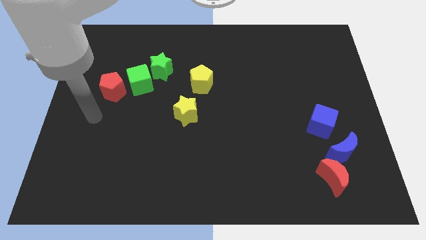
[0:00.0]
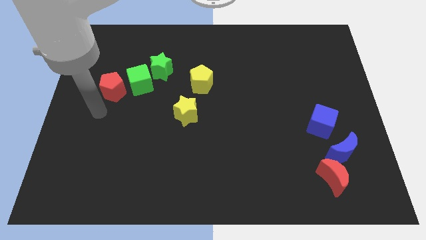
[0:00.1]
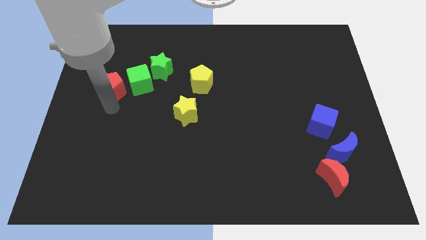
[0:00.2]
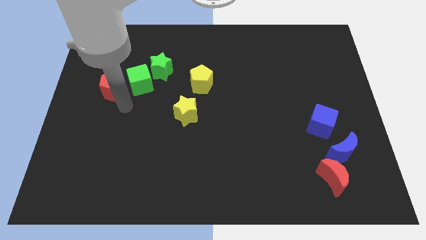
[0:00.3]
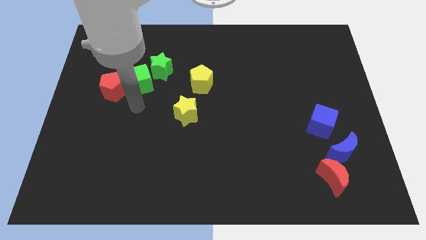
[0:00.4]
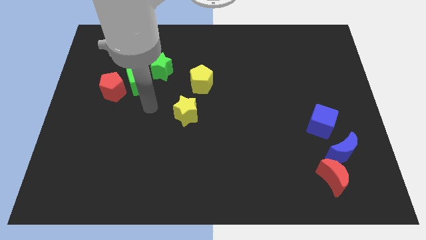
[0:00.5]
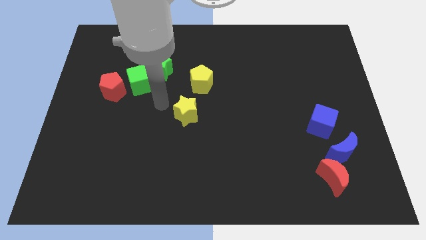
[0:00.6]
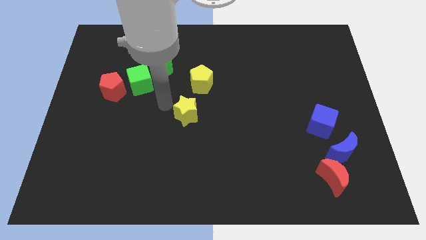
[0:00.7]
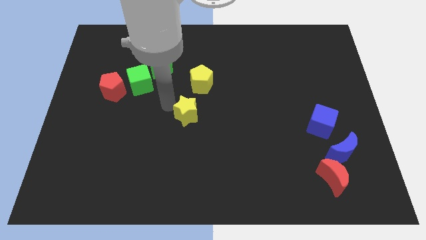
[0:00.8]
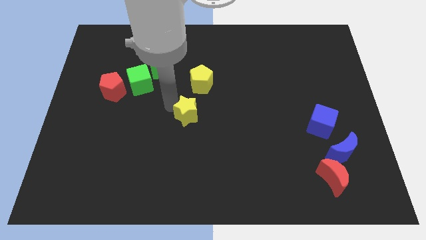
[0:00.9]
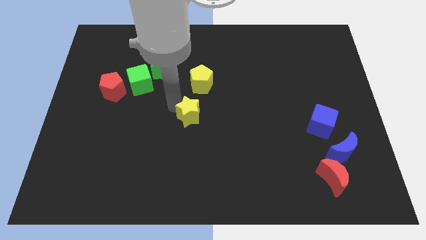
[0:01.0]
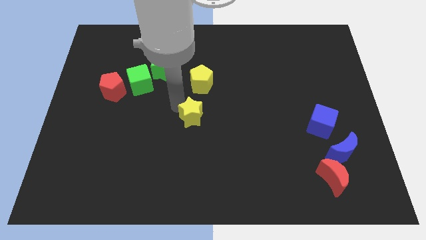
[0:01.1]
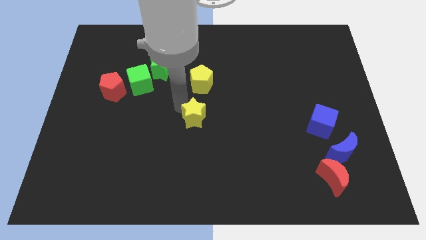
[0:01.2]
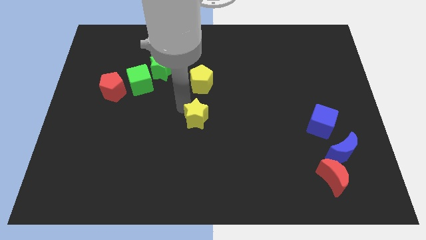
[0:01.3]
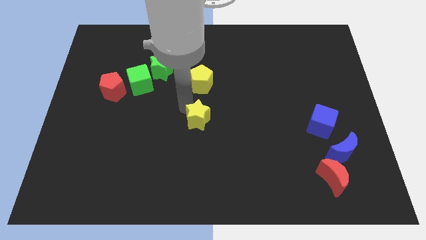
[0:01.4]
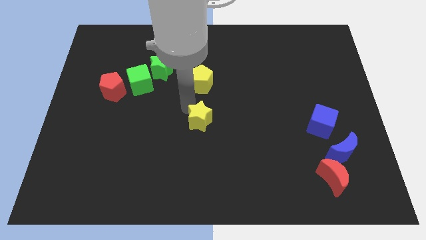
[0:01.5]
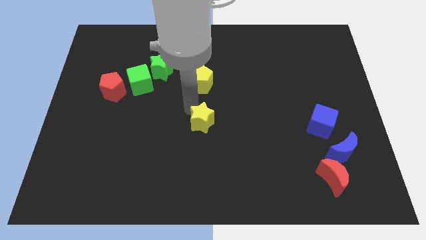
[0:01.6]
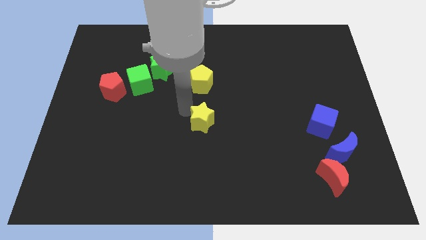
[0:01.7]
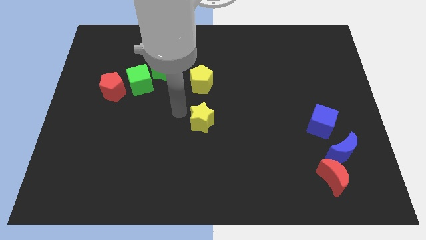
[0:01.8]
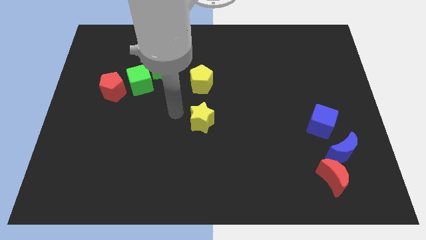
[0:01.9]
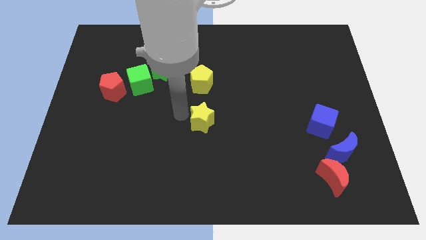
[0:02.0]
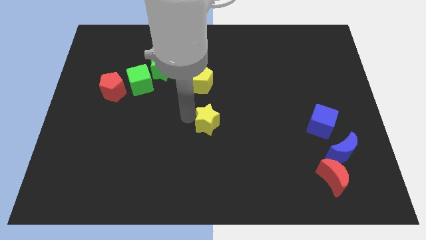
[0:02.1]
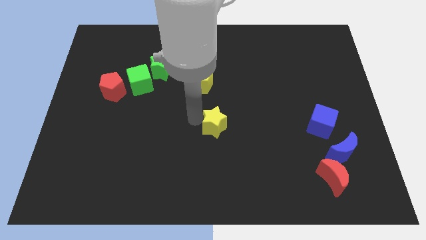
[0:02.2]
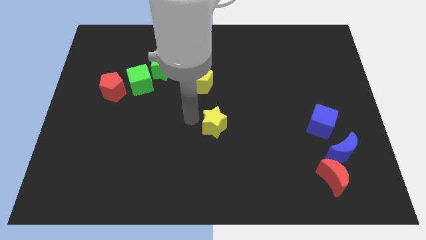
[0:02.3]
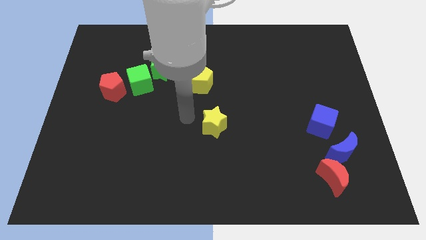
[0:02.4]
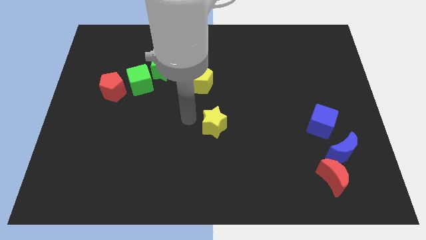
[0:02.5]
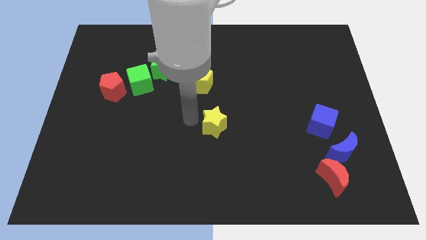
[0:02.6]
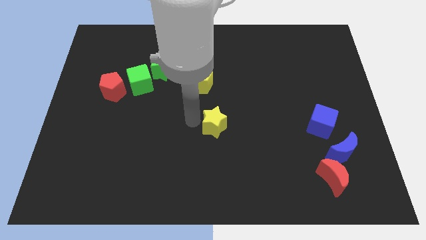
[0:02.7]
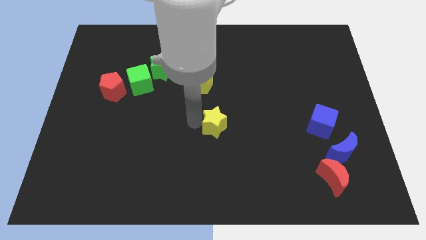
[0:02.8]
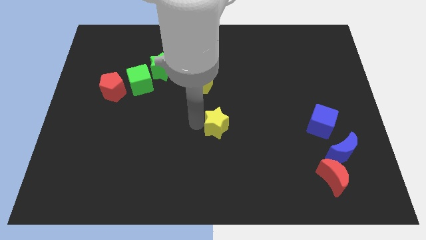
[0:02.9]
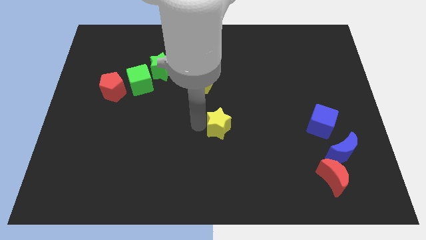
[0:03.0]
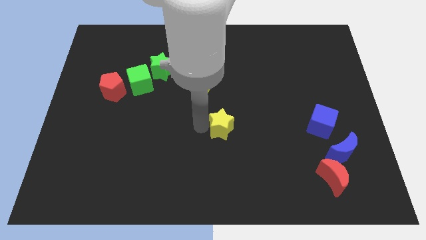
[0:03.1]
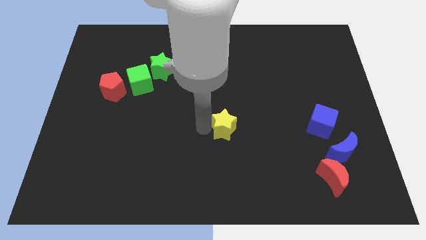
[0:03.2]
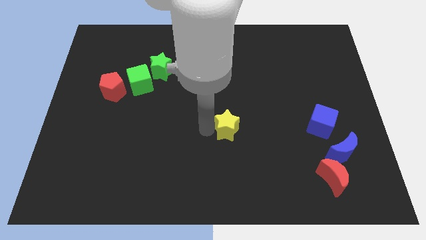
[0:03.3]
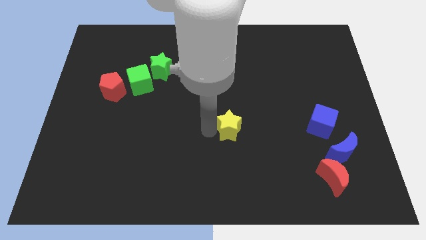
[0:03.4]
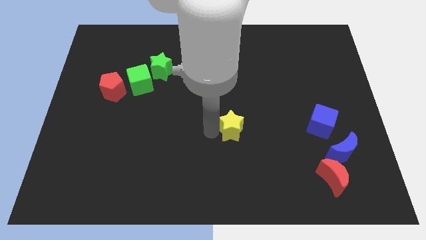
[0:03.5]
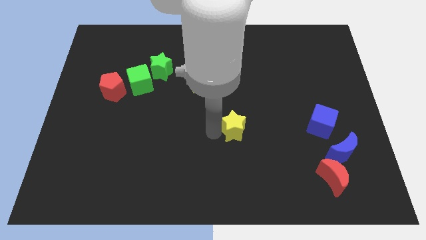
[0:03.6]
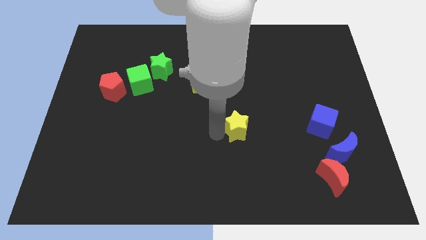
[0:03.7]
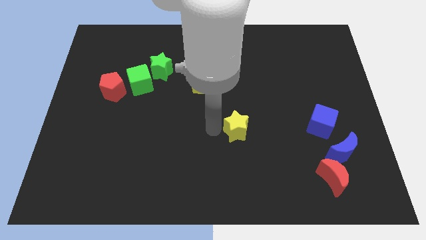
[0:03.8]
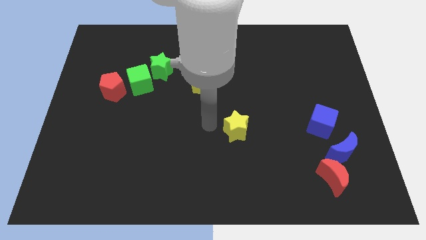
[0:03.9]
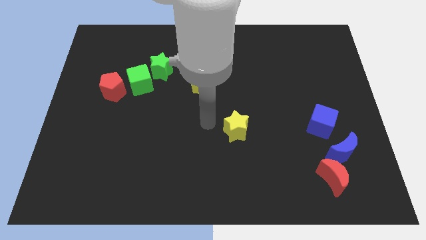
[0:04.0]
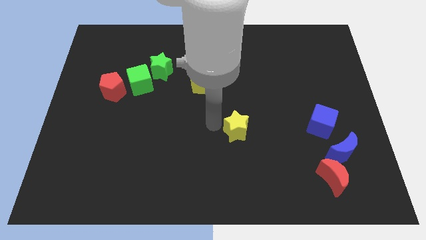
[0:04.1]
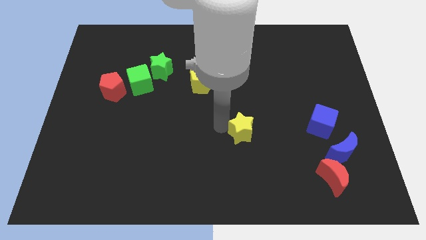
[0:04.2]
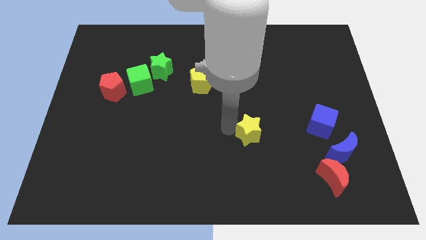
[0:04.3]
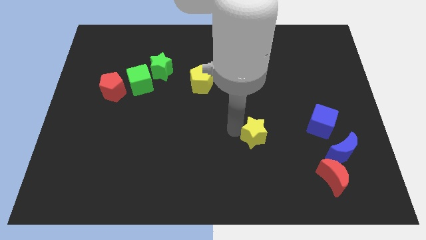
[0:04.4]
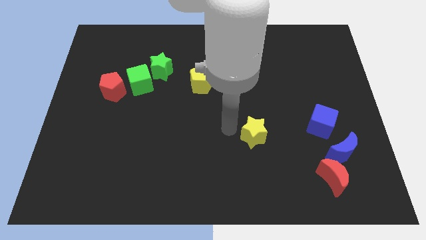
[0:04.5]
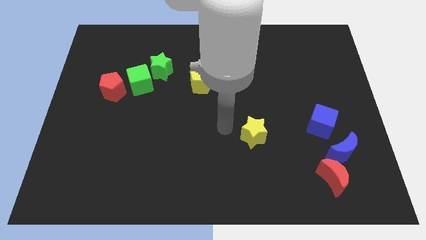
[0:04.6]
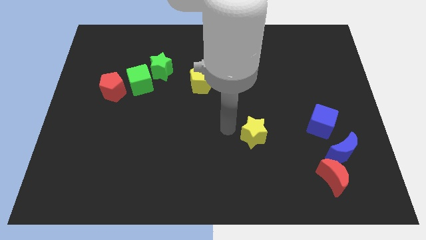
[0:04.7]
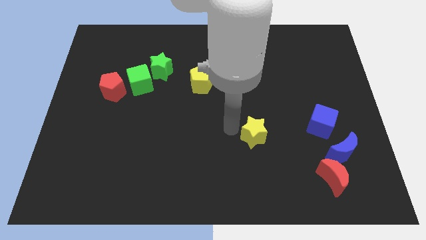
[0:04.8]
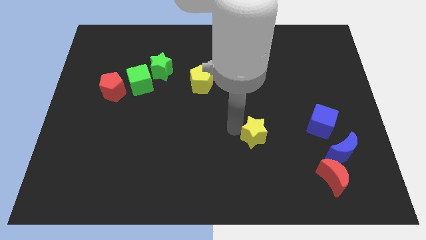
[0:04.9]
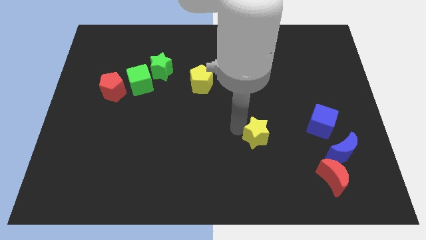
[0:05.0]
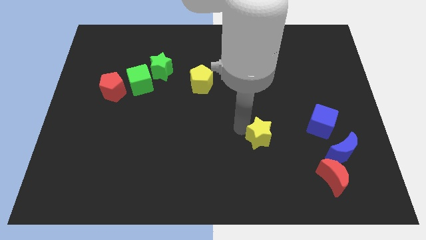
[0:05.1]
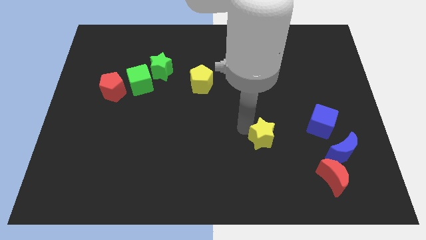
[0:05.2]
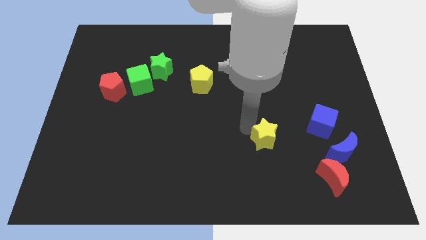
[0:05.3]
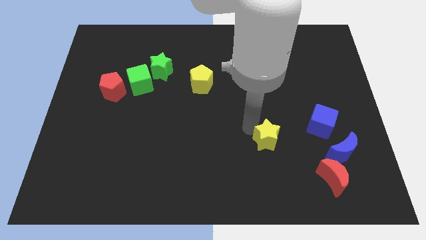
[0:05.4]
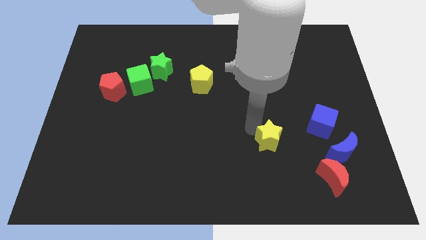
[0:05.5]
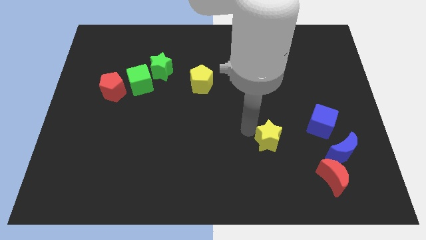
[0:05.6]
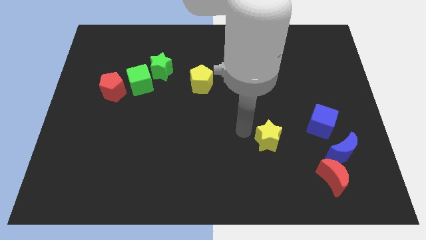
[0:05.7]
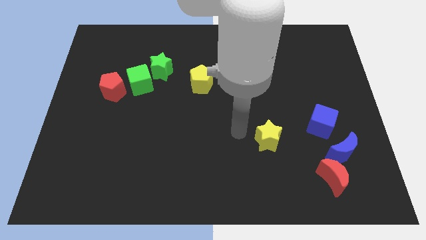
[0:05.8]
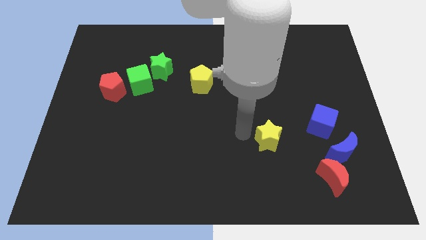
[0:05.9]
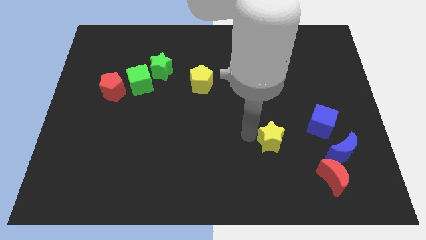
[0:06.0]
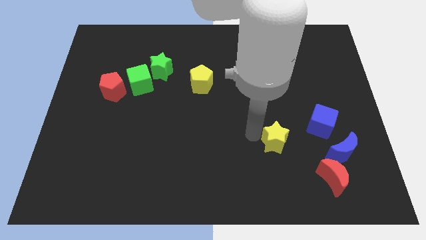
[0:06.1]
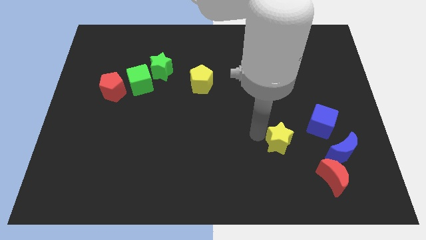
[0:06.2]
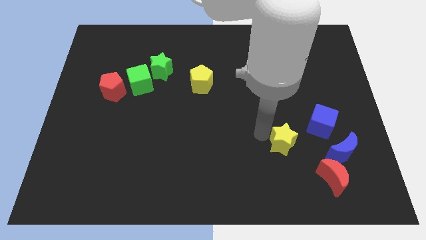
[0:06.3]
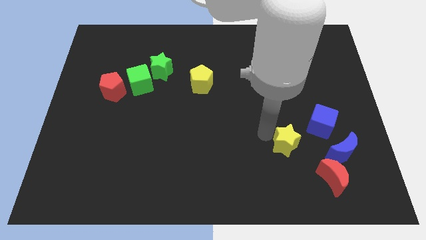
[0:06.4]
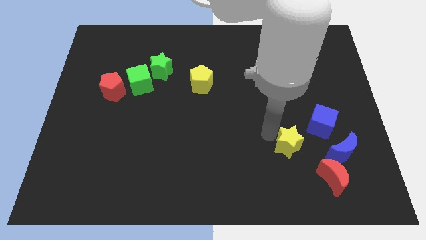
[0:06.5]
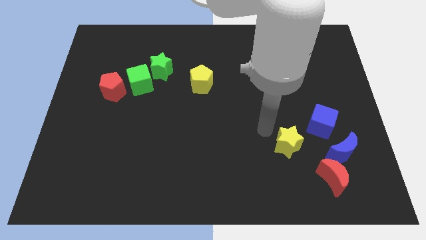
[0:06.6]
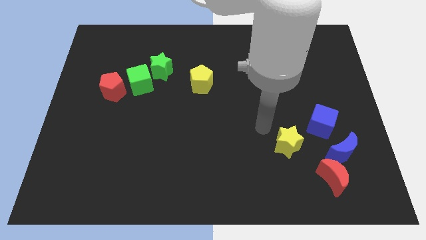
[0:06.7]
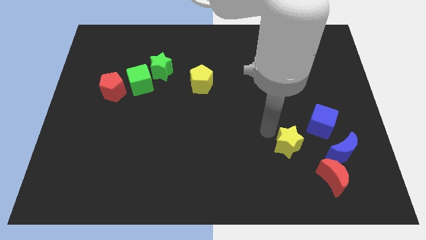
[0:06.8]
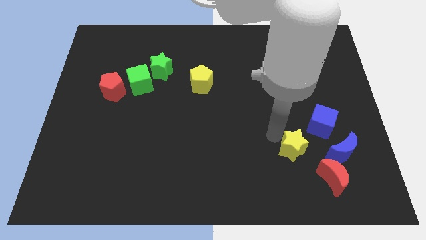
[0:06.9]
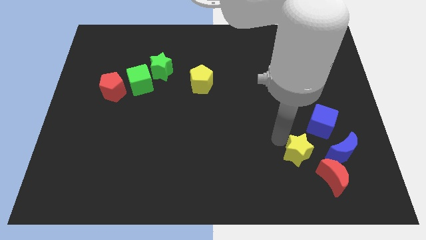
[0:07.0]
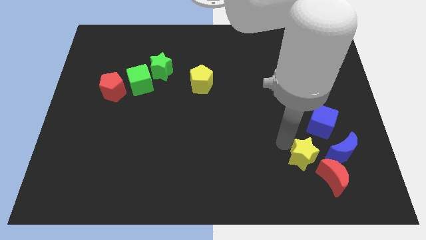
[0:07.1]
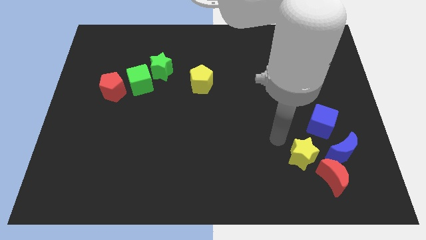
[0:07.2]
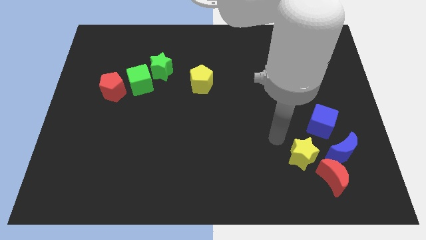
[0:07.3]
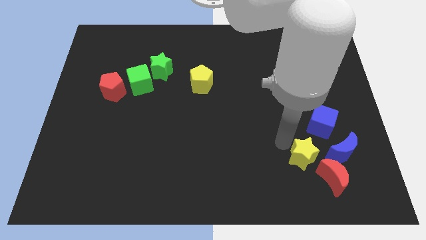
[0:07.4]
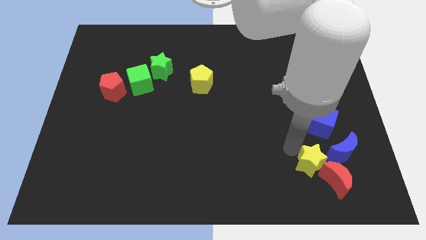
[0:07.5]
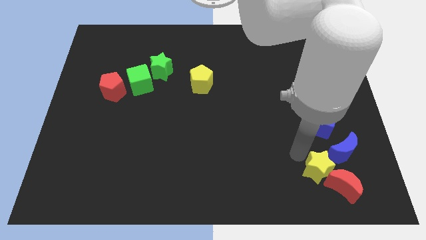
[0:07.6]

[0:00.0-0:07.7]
push the yellow star next to the red moon

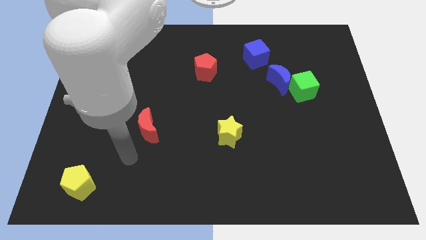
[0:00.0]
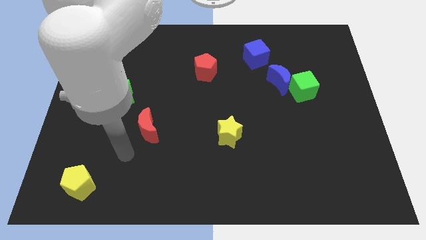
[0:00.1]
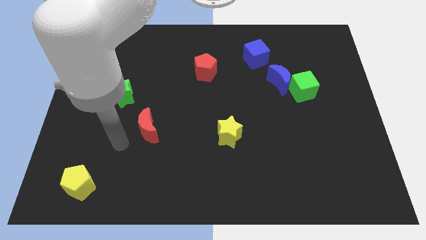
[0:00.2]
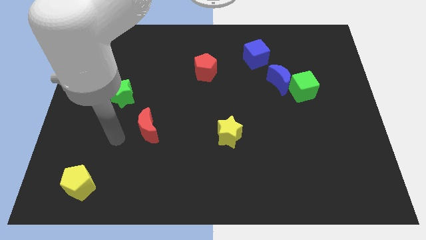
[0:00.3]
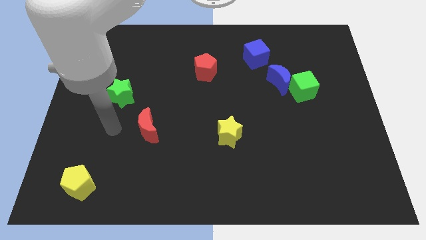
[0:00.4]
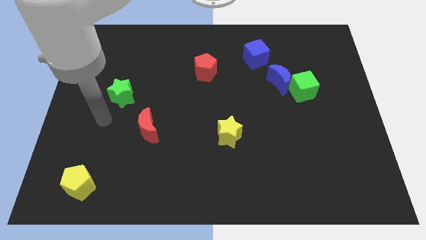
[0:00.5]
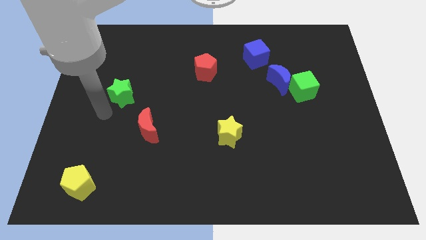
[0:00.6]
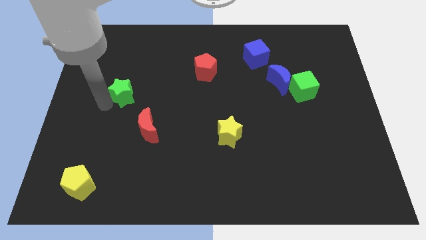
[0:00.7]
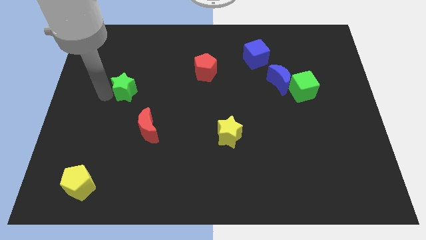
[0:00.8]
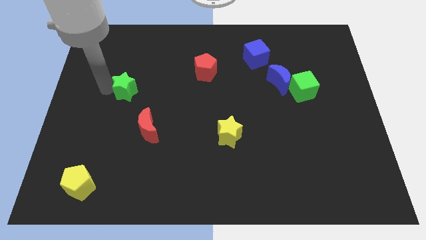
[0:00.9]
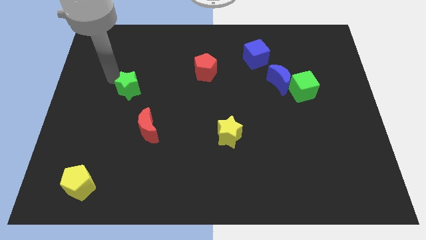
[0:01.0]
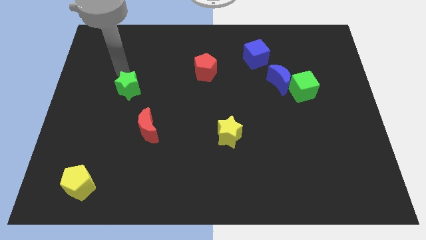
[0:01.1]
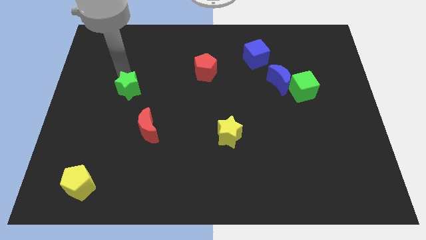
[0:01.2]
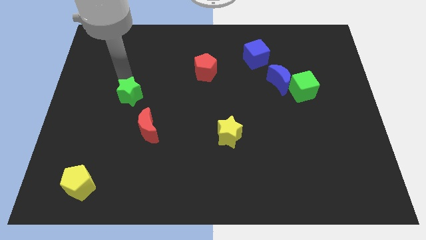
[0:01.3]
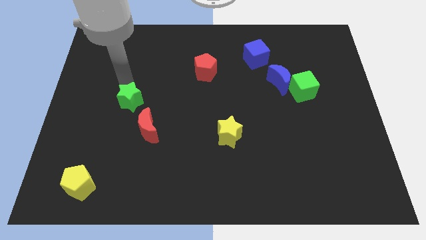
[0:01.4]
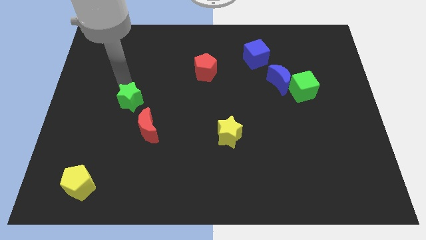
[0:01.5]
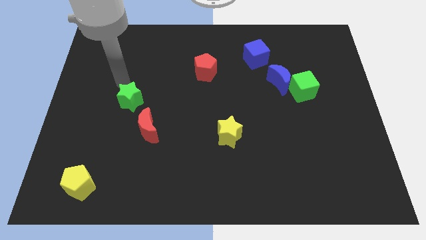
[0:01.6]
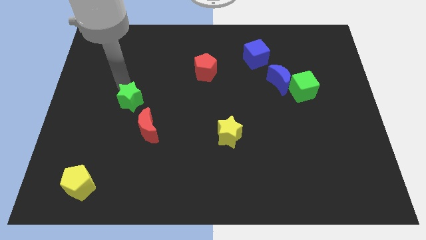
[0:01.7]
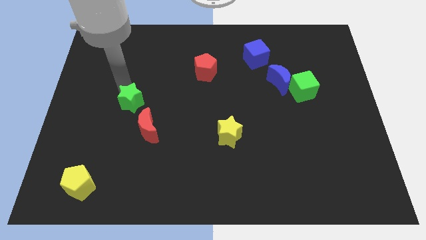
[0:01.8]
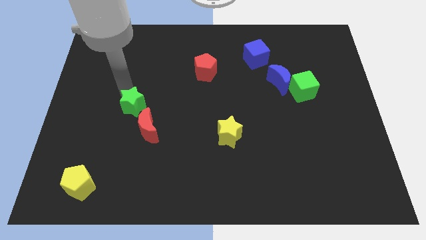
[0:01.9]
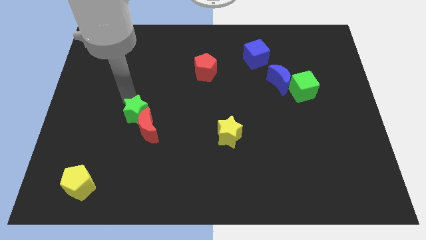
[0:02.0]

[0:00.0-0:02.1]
slide the green star towards the red moon
